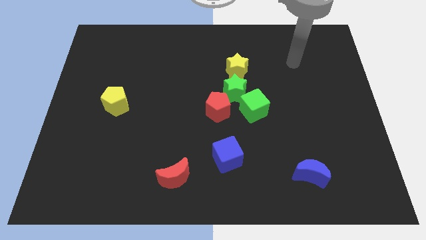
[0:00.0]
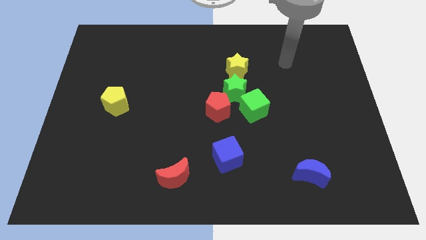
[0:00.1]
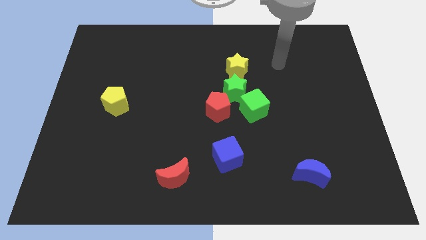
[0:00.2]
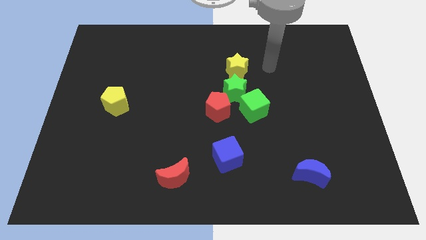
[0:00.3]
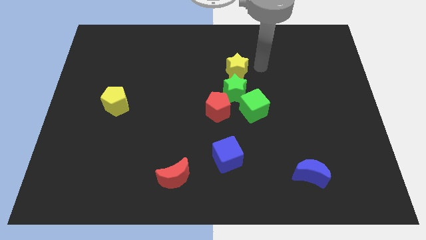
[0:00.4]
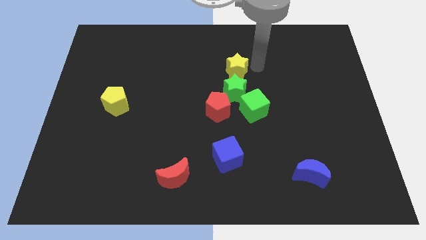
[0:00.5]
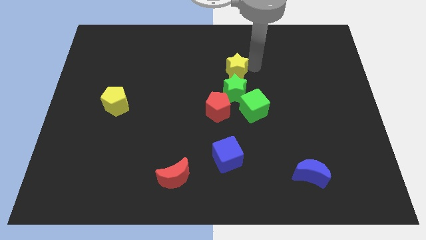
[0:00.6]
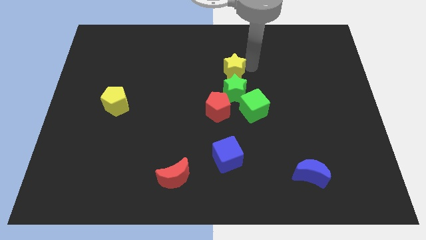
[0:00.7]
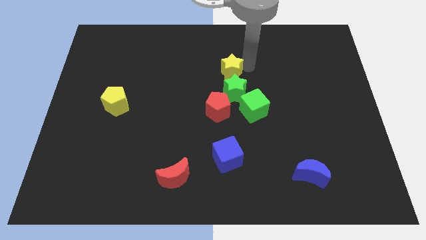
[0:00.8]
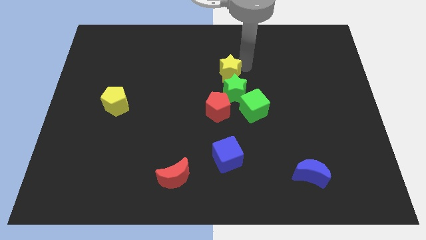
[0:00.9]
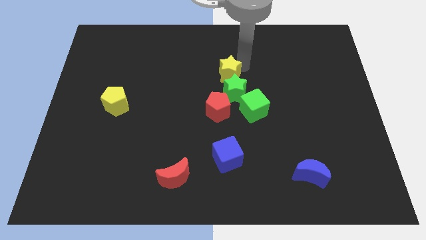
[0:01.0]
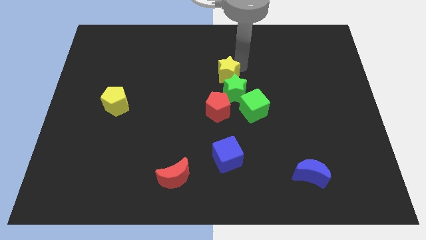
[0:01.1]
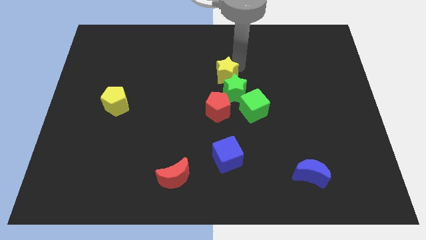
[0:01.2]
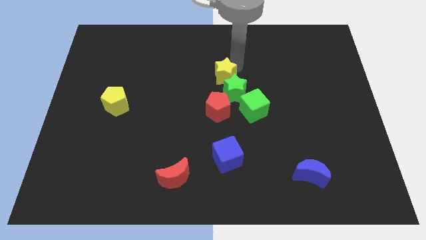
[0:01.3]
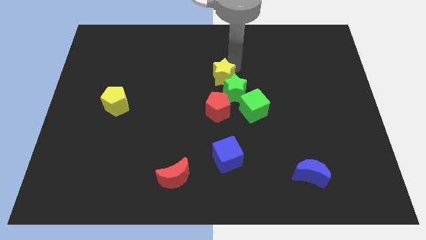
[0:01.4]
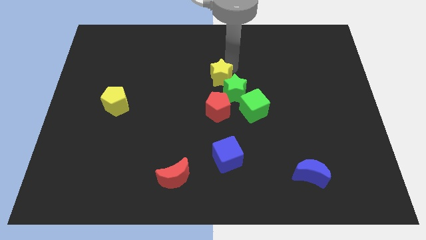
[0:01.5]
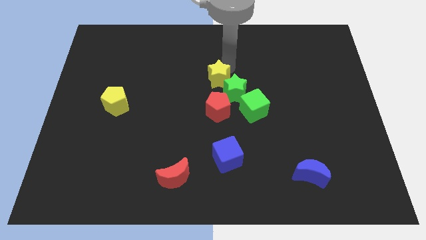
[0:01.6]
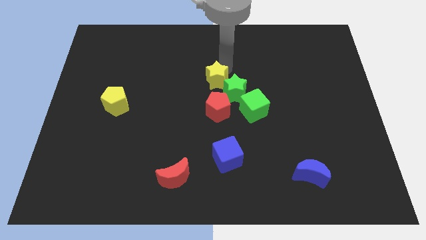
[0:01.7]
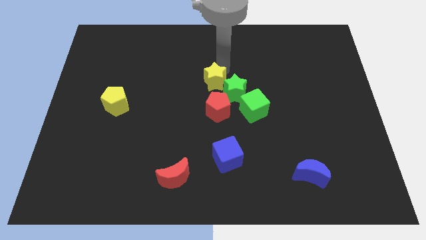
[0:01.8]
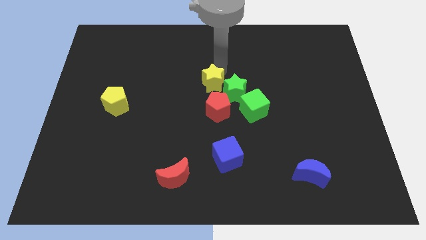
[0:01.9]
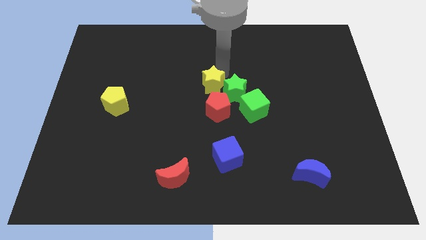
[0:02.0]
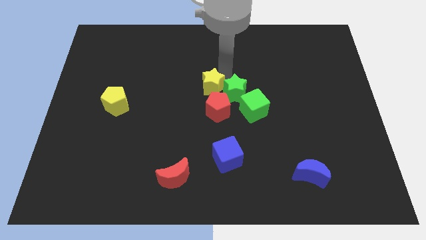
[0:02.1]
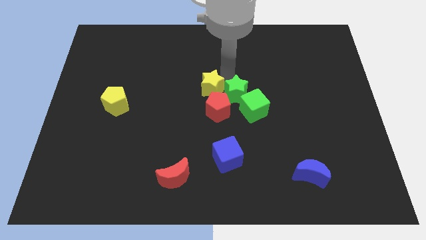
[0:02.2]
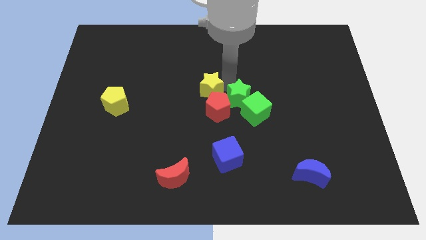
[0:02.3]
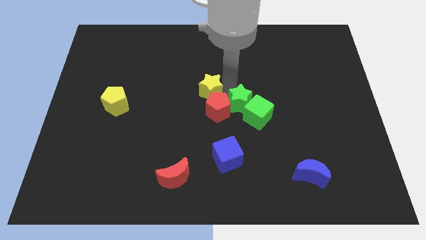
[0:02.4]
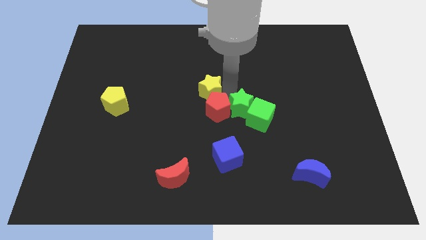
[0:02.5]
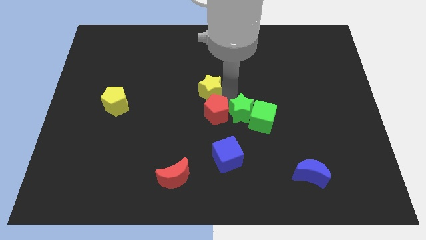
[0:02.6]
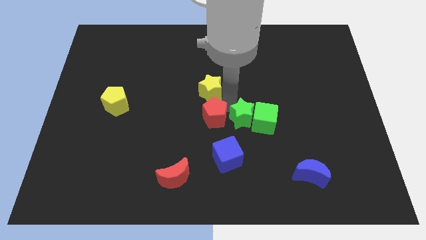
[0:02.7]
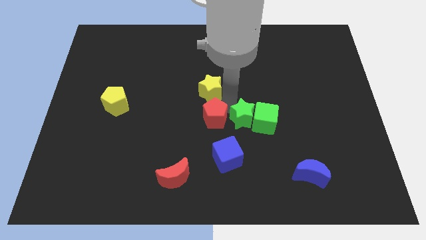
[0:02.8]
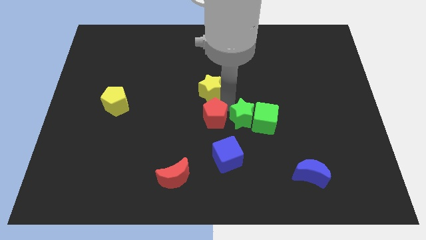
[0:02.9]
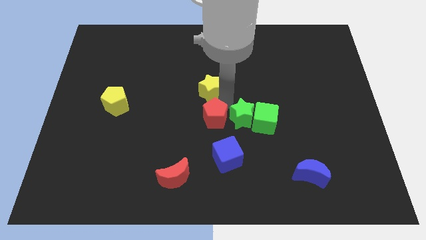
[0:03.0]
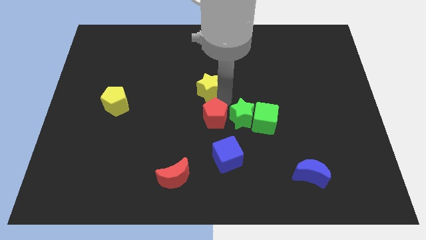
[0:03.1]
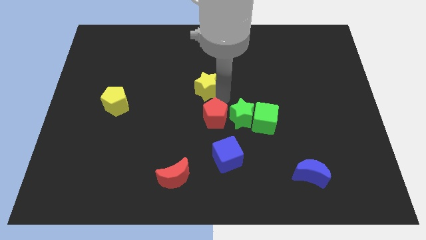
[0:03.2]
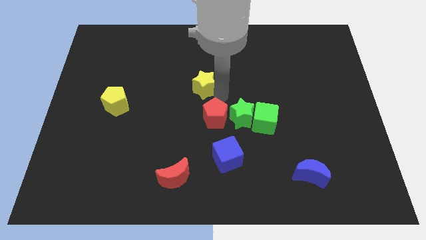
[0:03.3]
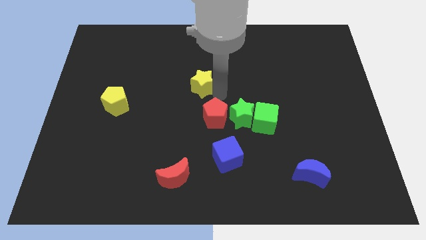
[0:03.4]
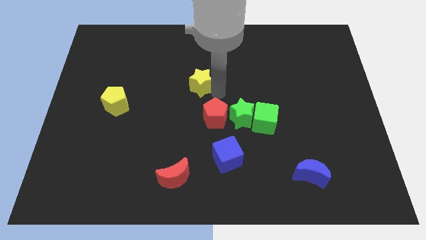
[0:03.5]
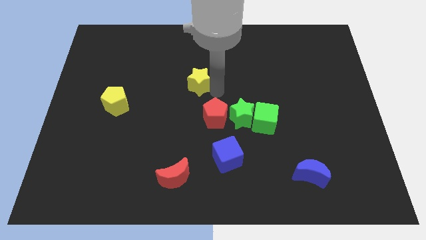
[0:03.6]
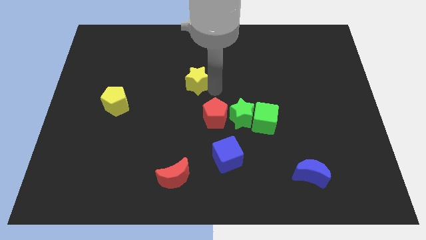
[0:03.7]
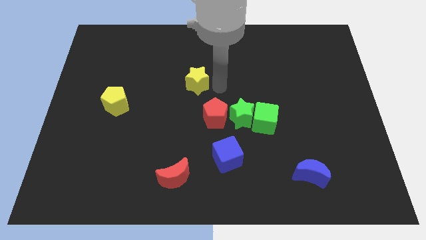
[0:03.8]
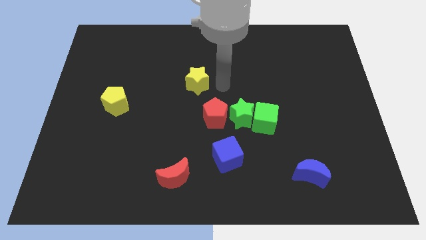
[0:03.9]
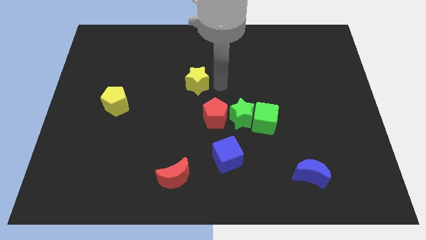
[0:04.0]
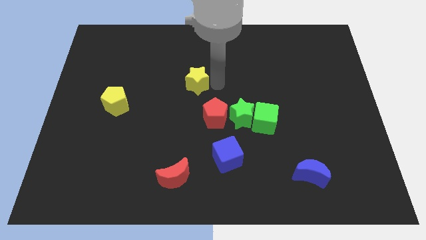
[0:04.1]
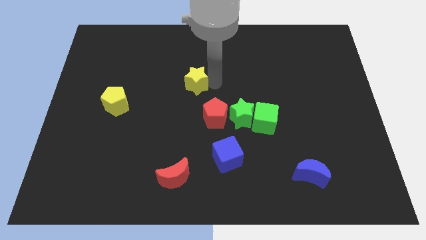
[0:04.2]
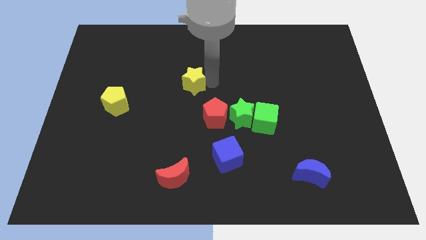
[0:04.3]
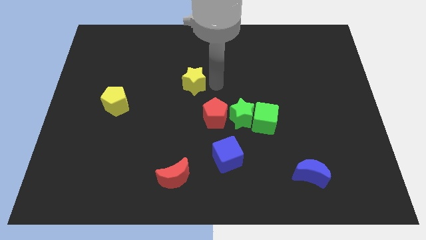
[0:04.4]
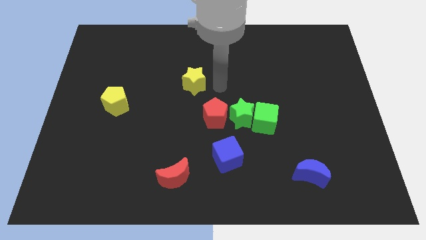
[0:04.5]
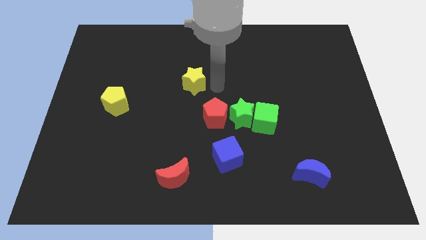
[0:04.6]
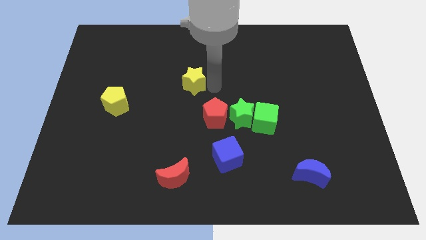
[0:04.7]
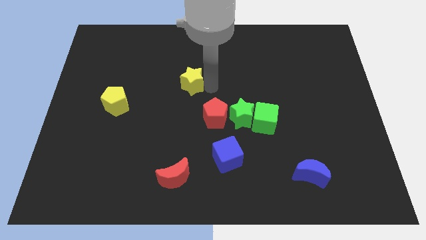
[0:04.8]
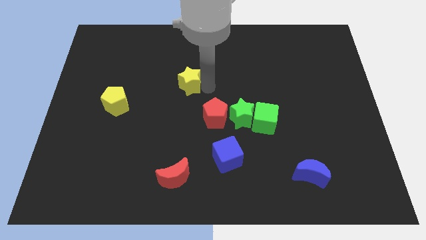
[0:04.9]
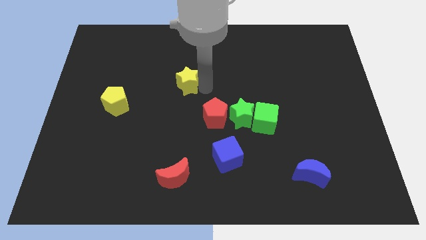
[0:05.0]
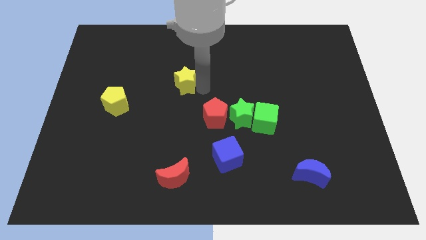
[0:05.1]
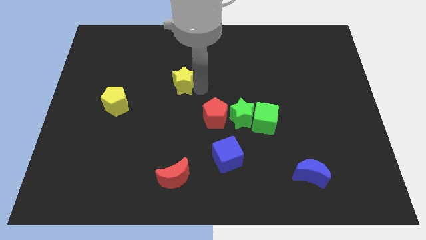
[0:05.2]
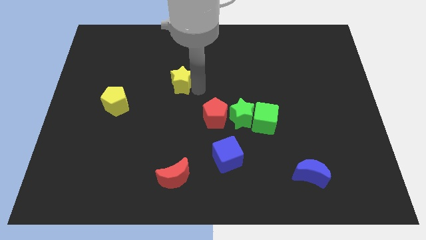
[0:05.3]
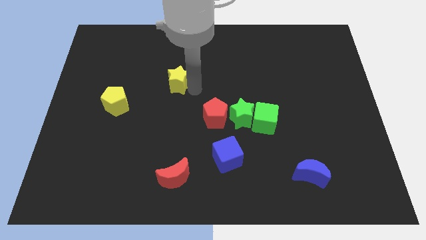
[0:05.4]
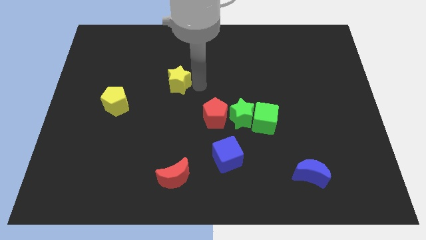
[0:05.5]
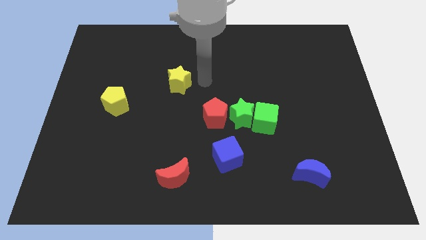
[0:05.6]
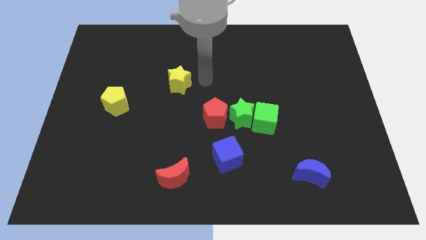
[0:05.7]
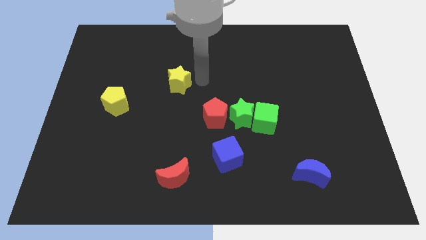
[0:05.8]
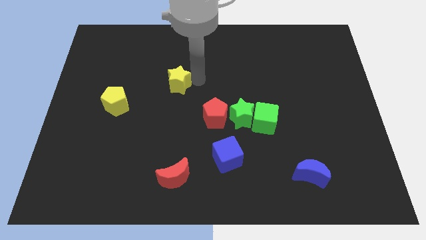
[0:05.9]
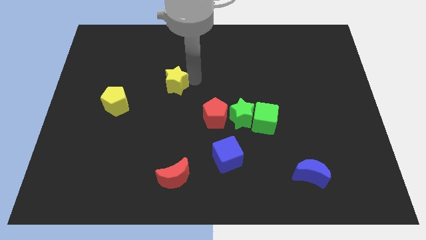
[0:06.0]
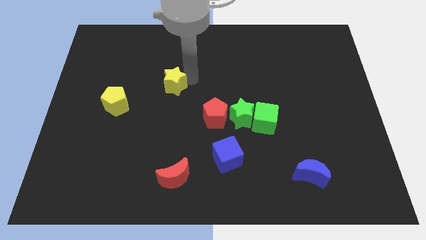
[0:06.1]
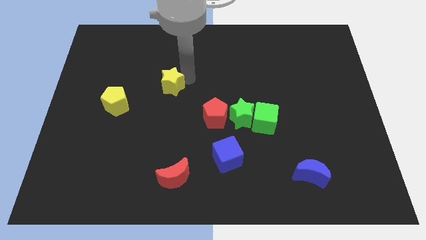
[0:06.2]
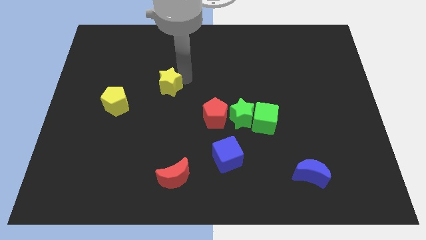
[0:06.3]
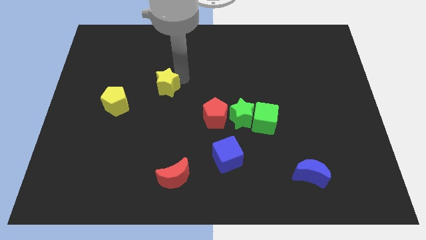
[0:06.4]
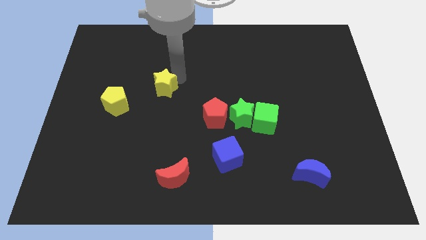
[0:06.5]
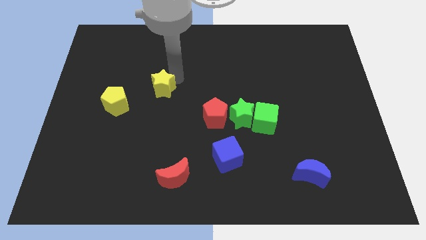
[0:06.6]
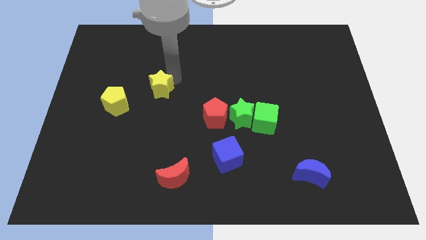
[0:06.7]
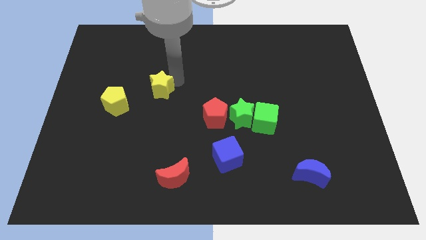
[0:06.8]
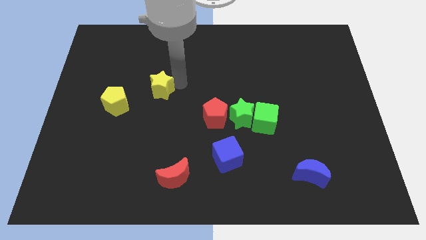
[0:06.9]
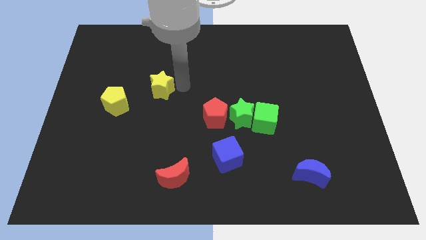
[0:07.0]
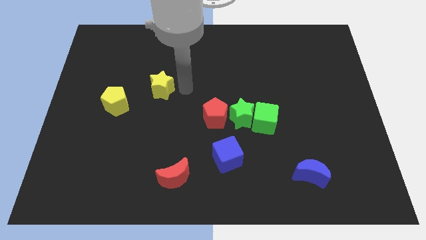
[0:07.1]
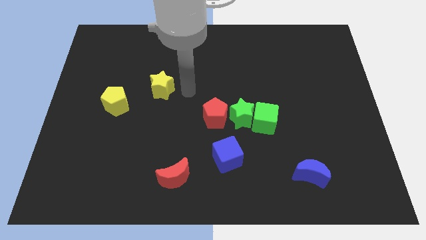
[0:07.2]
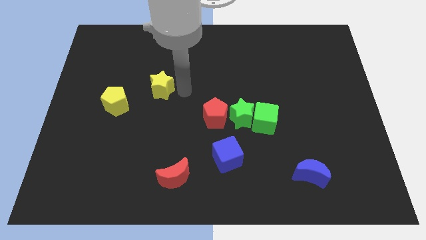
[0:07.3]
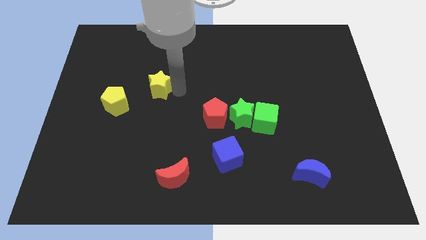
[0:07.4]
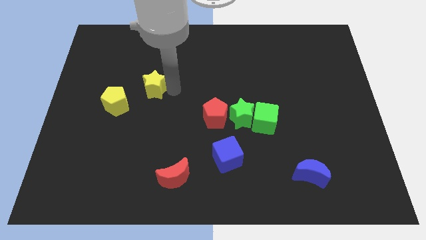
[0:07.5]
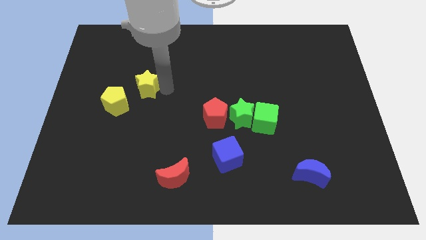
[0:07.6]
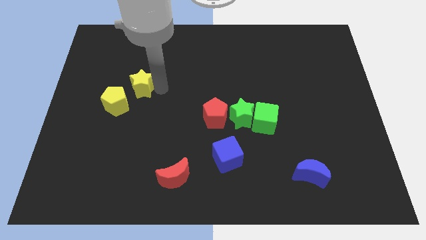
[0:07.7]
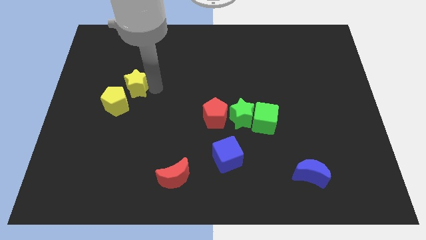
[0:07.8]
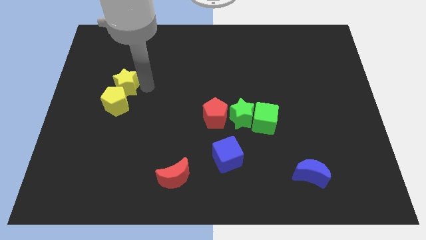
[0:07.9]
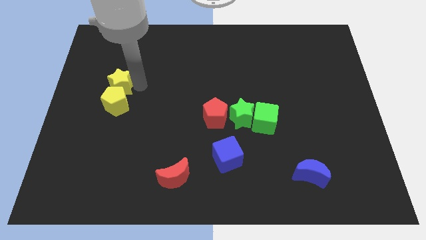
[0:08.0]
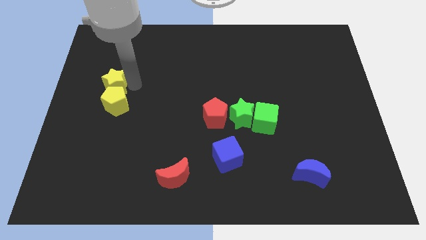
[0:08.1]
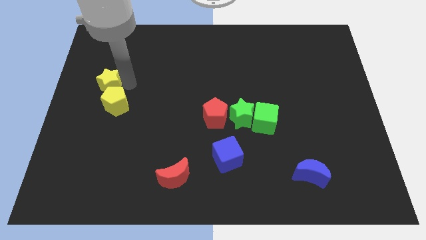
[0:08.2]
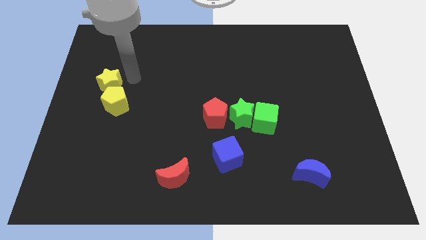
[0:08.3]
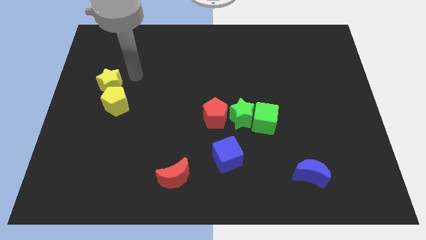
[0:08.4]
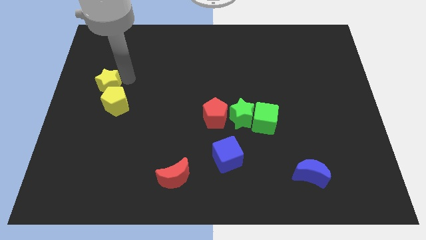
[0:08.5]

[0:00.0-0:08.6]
push the yellow star to the center left
